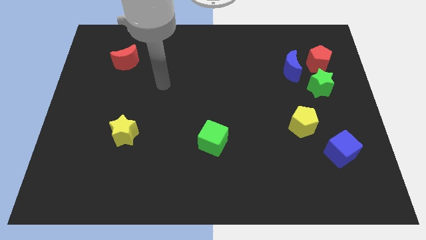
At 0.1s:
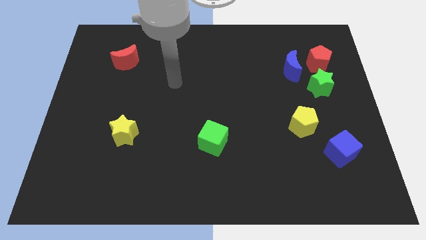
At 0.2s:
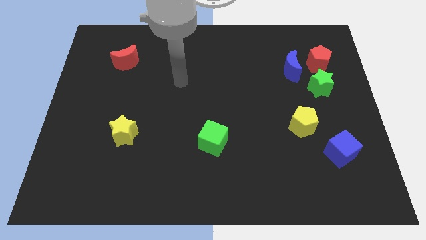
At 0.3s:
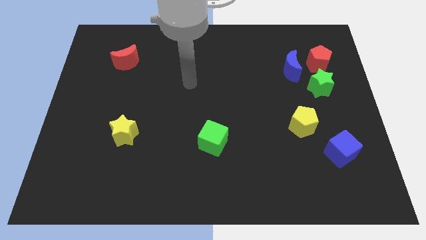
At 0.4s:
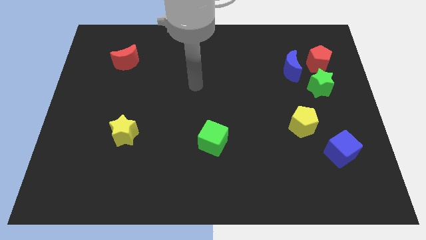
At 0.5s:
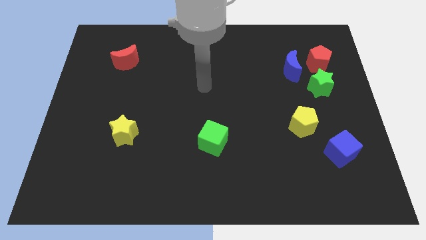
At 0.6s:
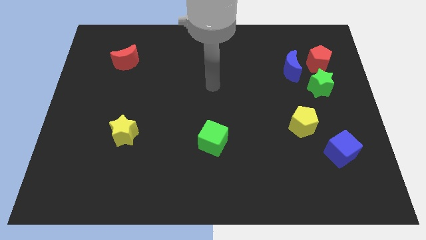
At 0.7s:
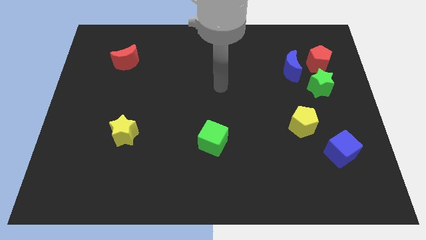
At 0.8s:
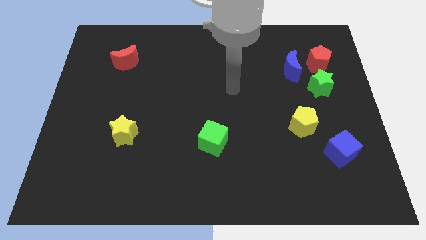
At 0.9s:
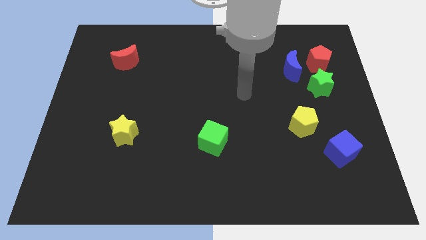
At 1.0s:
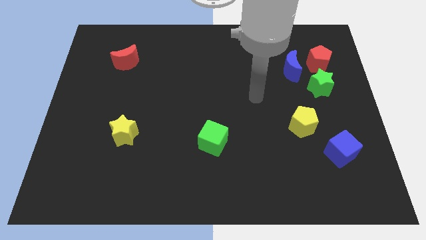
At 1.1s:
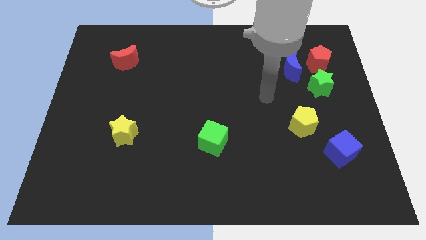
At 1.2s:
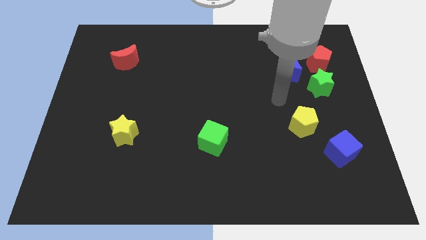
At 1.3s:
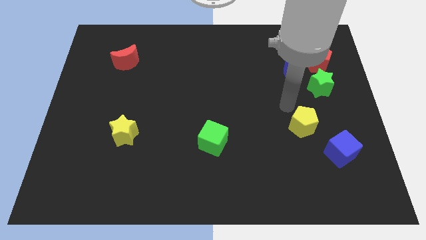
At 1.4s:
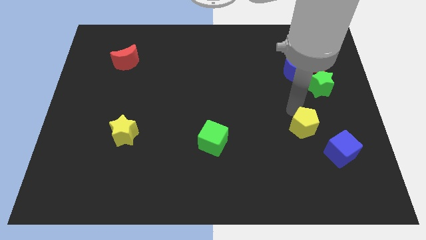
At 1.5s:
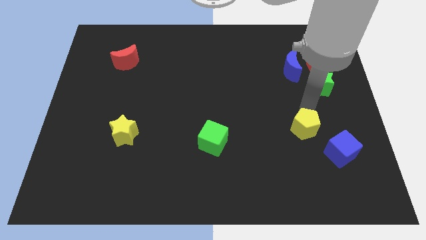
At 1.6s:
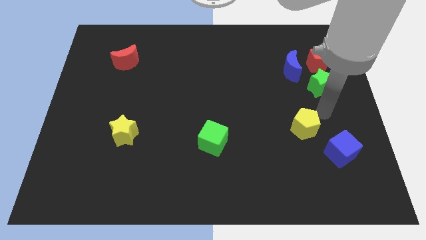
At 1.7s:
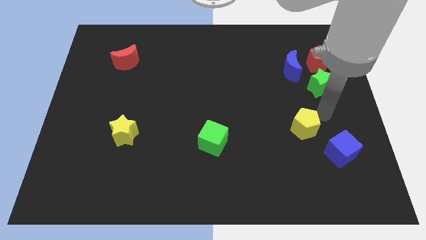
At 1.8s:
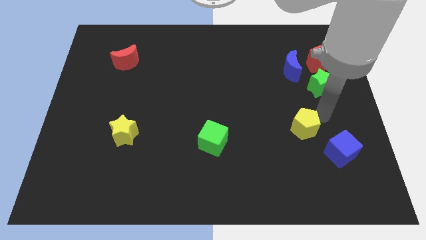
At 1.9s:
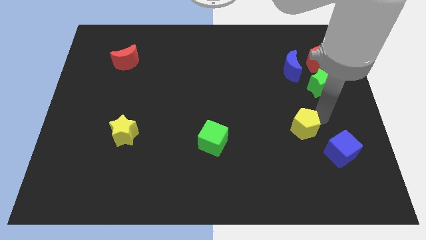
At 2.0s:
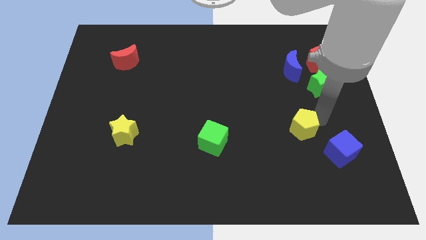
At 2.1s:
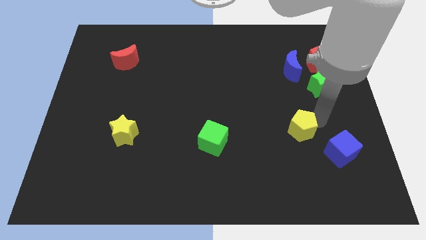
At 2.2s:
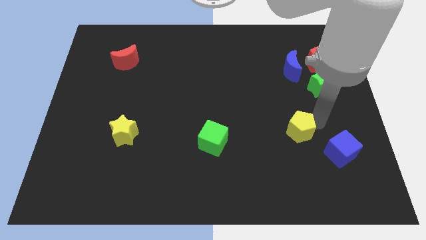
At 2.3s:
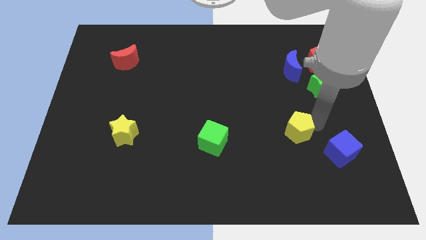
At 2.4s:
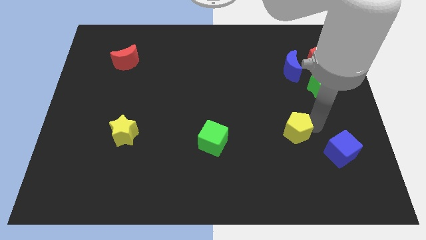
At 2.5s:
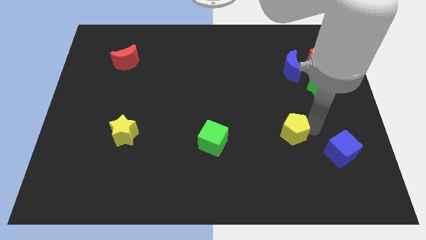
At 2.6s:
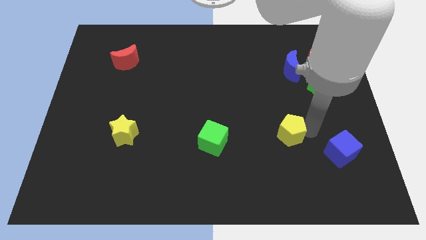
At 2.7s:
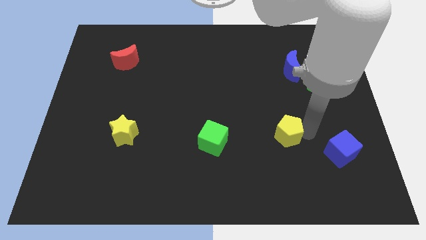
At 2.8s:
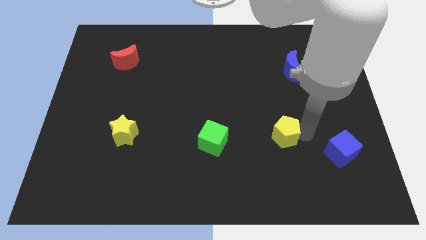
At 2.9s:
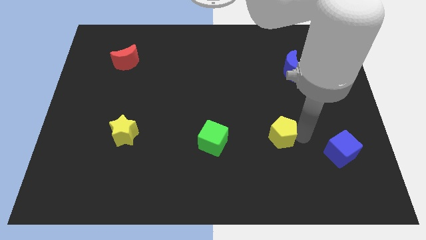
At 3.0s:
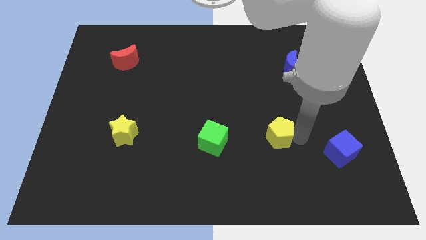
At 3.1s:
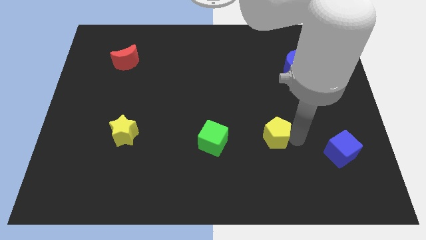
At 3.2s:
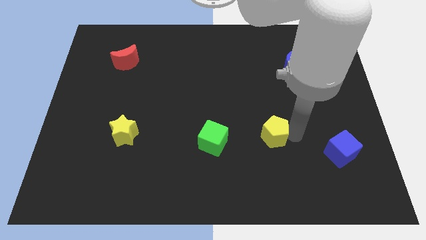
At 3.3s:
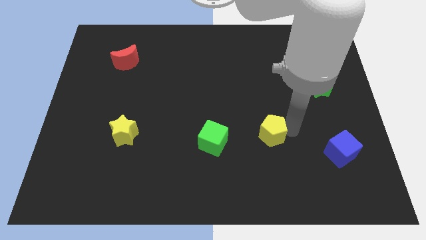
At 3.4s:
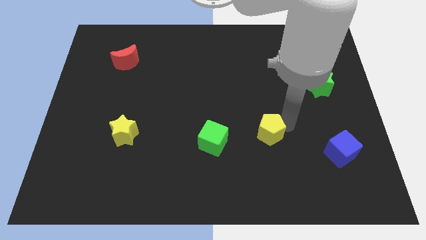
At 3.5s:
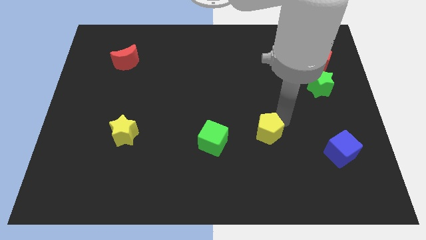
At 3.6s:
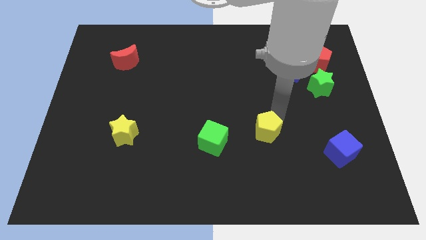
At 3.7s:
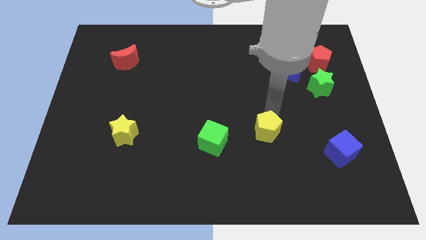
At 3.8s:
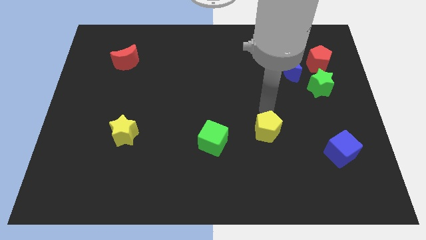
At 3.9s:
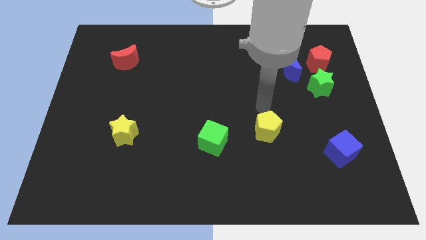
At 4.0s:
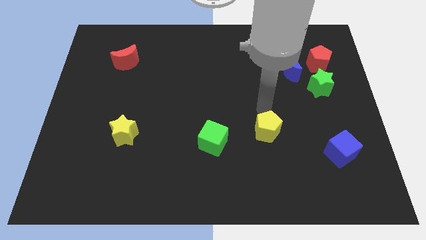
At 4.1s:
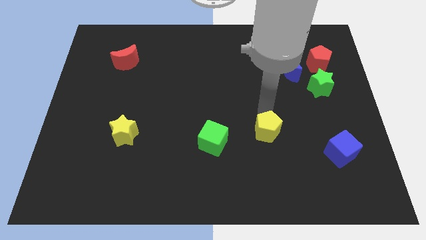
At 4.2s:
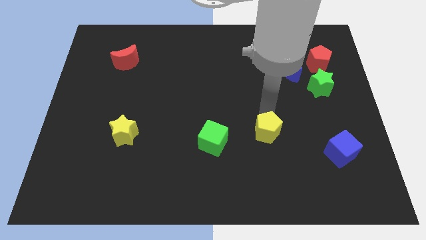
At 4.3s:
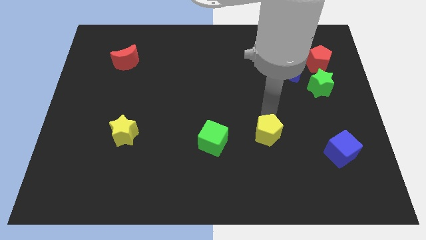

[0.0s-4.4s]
move the yellow pentagon a bit down and then left

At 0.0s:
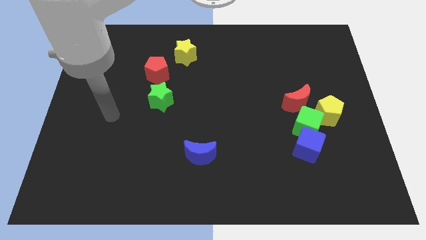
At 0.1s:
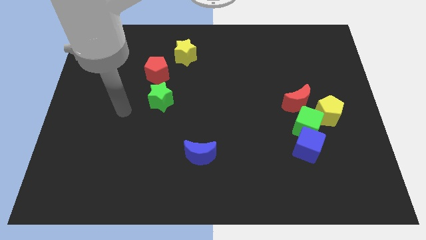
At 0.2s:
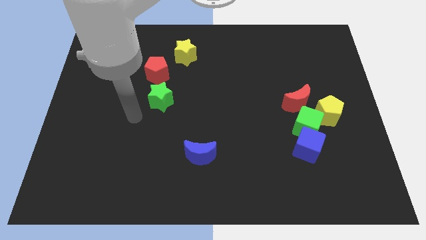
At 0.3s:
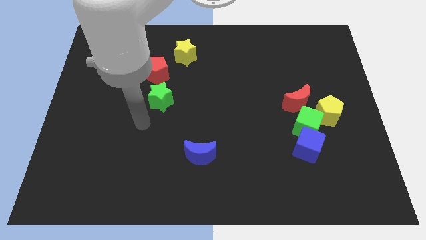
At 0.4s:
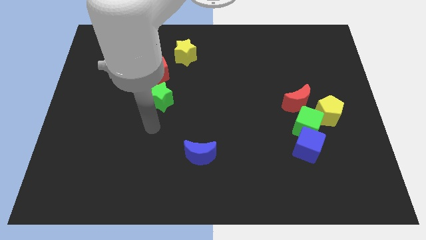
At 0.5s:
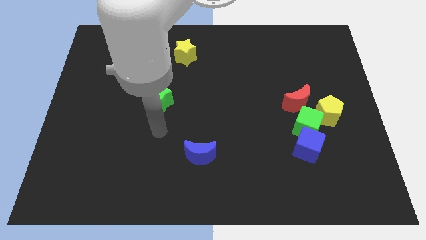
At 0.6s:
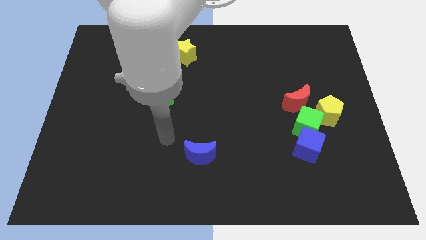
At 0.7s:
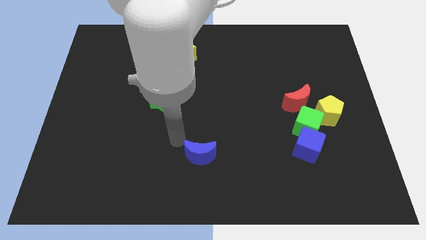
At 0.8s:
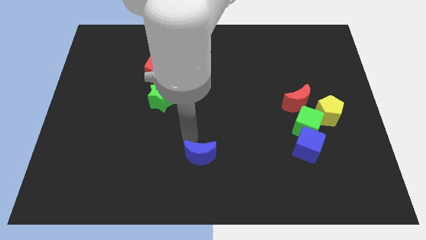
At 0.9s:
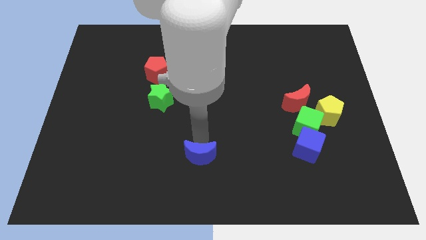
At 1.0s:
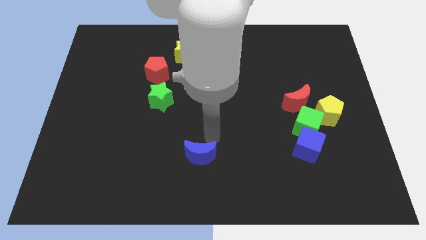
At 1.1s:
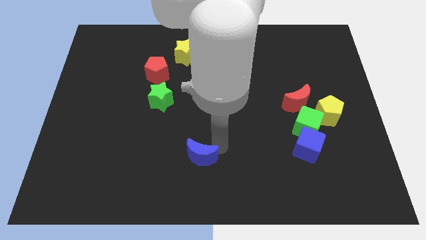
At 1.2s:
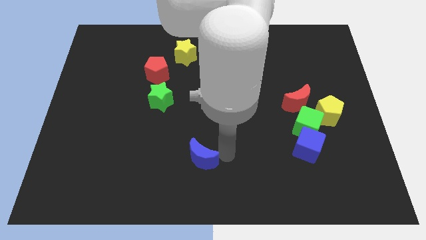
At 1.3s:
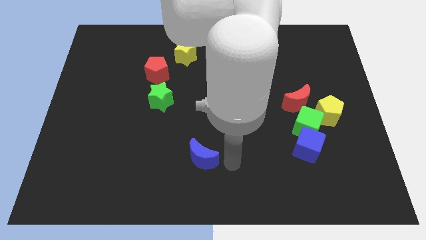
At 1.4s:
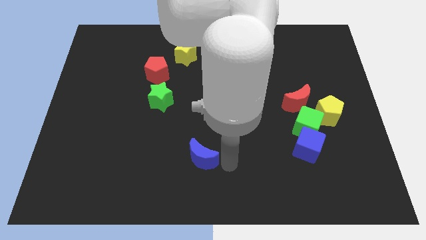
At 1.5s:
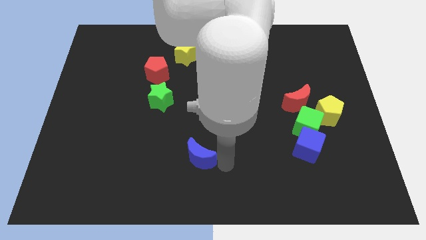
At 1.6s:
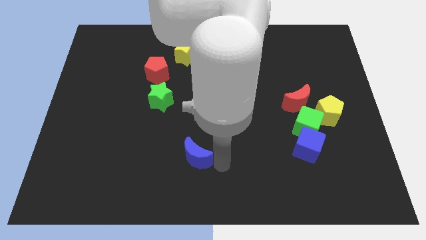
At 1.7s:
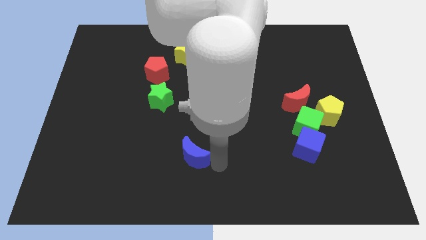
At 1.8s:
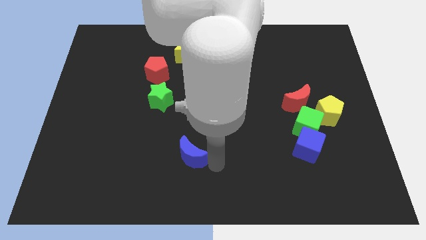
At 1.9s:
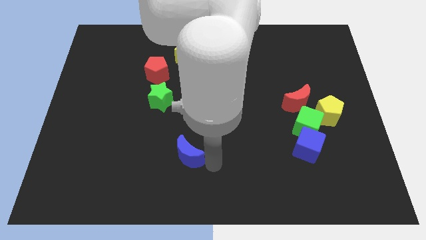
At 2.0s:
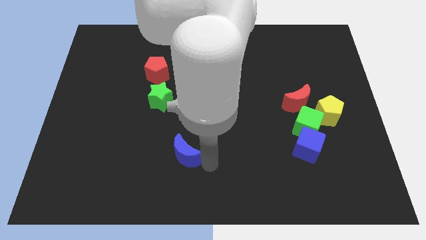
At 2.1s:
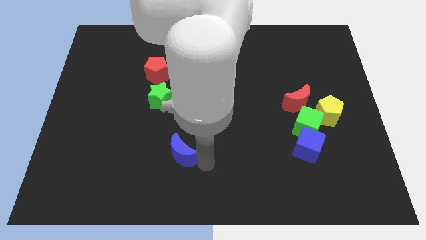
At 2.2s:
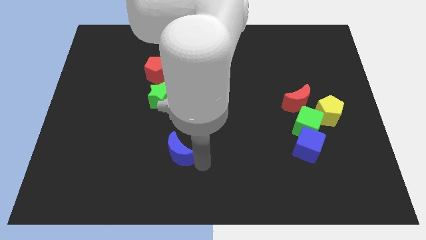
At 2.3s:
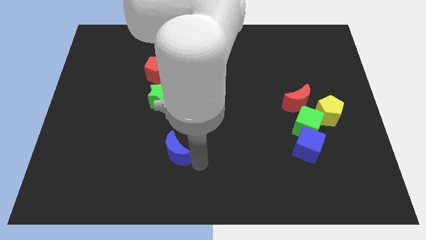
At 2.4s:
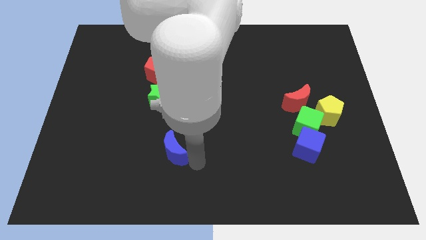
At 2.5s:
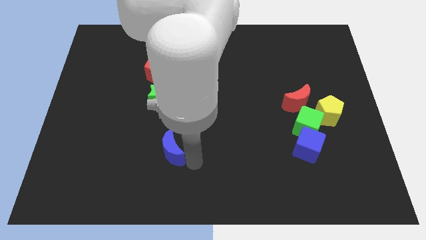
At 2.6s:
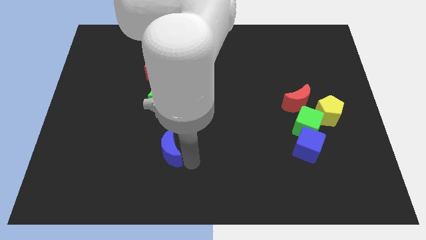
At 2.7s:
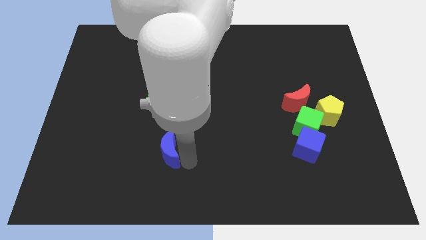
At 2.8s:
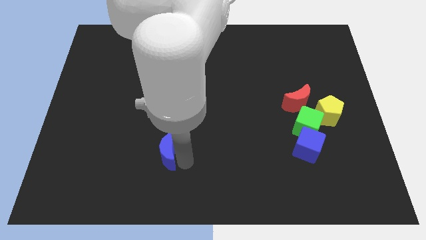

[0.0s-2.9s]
push the blue moon a little bit to the left

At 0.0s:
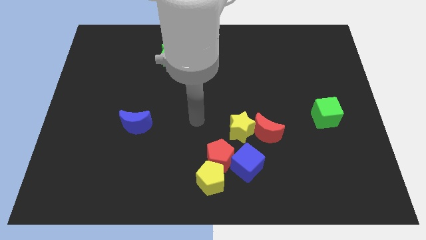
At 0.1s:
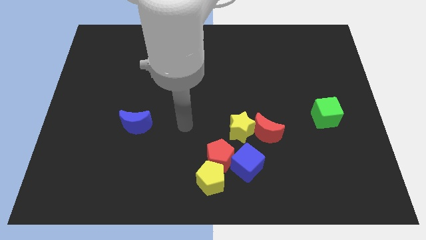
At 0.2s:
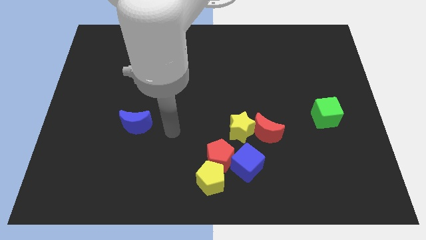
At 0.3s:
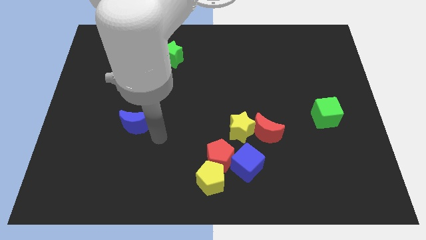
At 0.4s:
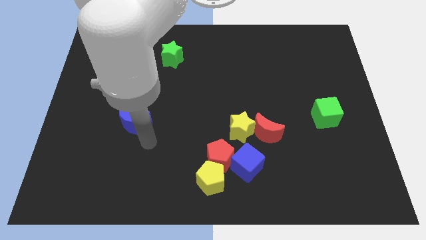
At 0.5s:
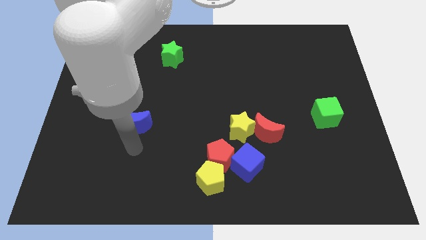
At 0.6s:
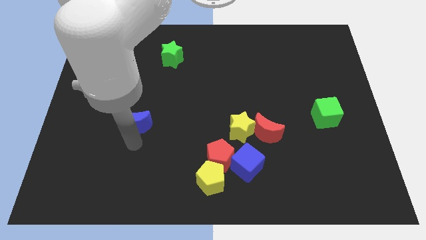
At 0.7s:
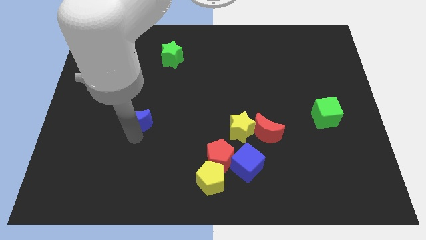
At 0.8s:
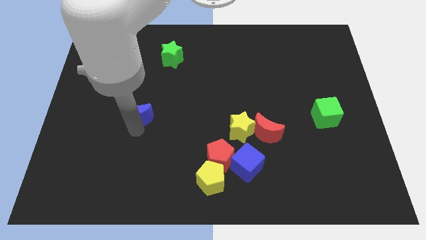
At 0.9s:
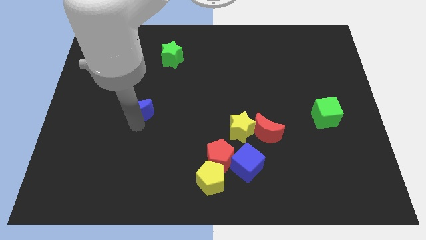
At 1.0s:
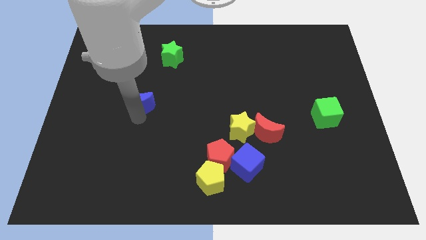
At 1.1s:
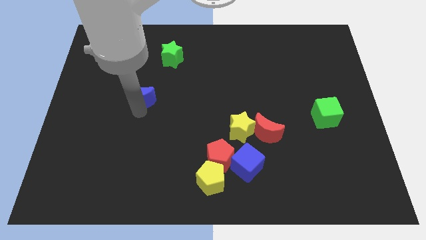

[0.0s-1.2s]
slightly move the blue moon upwards
